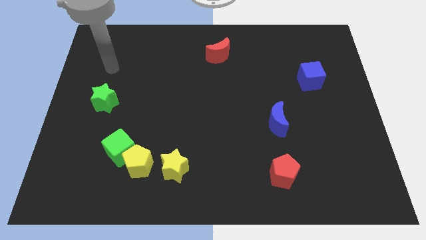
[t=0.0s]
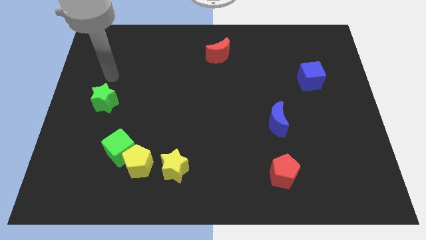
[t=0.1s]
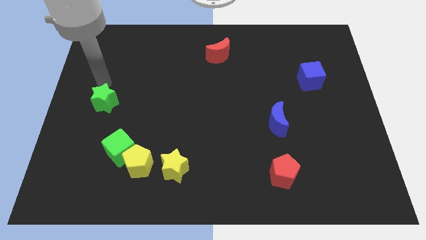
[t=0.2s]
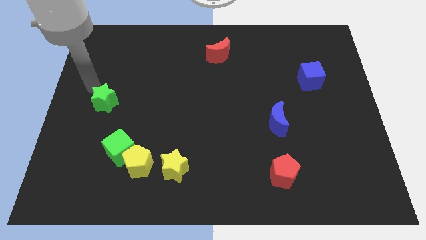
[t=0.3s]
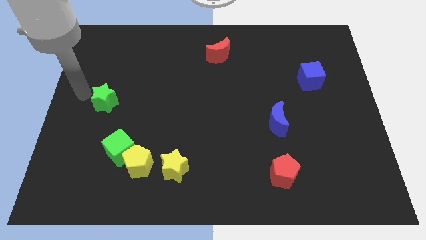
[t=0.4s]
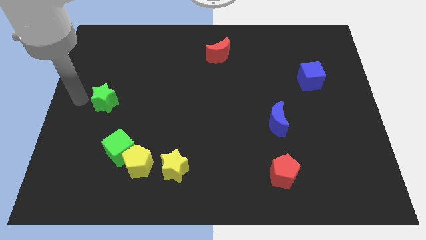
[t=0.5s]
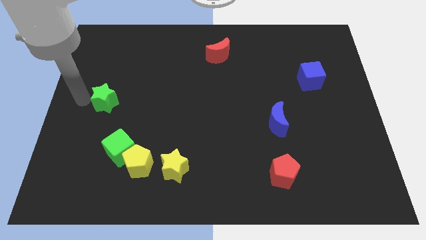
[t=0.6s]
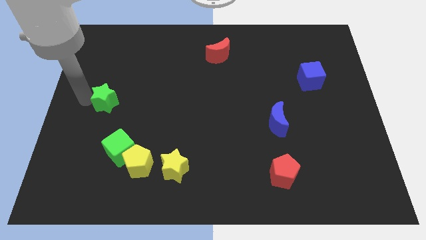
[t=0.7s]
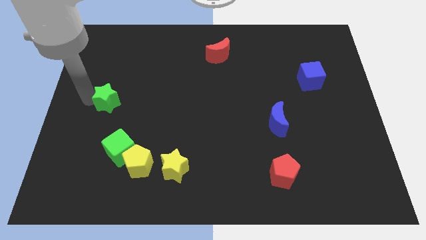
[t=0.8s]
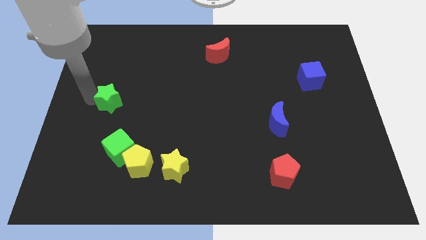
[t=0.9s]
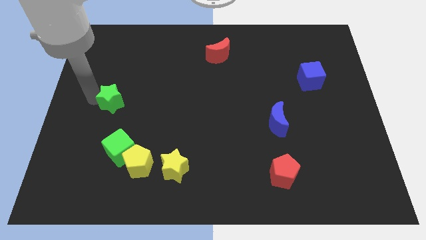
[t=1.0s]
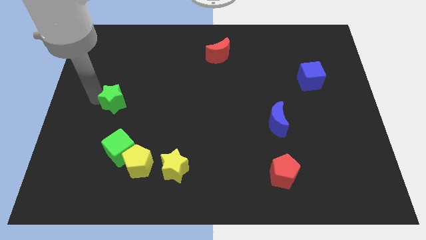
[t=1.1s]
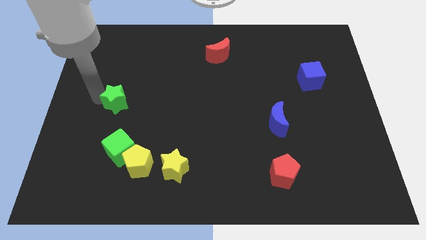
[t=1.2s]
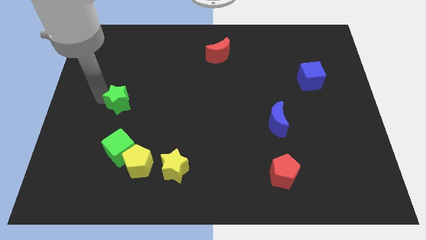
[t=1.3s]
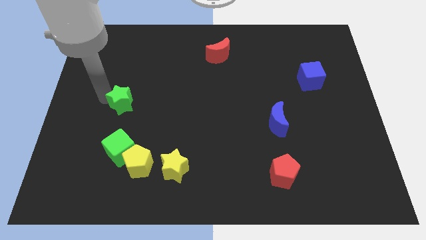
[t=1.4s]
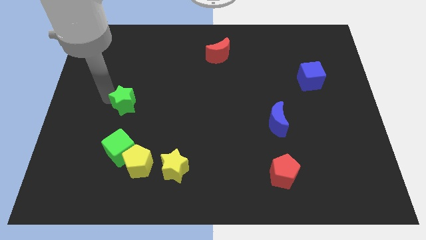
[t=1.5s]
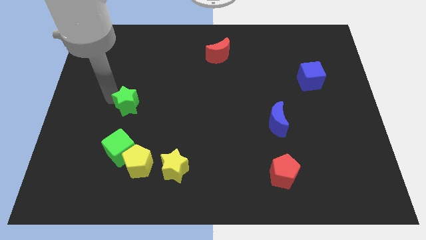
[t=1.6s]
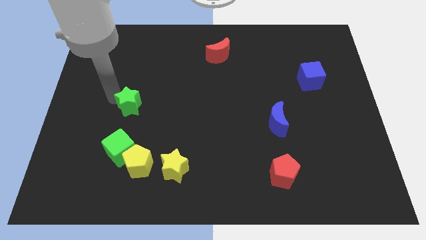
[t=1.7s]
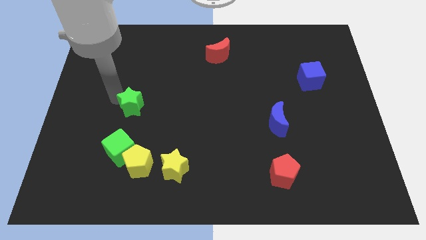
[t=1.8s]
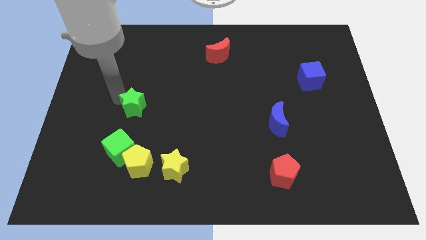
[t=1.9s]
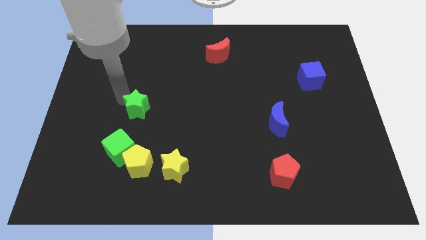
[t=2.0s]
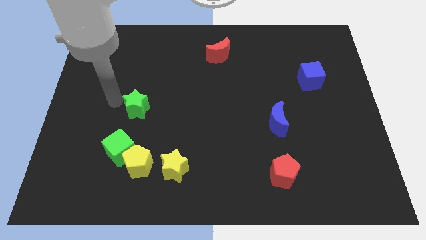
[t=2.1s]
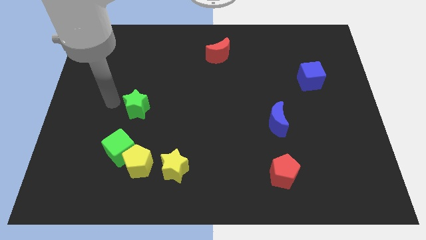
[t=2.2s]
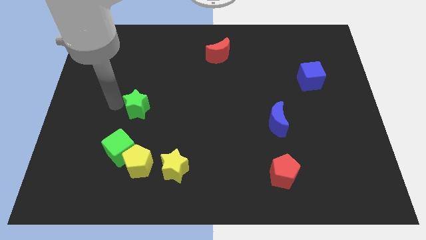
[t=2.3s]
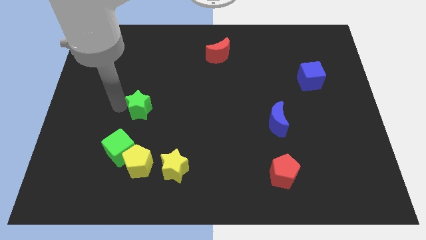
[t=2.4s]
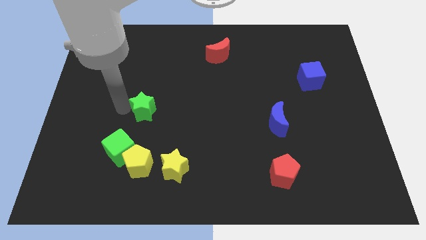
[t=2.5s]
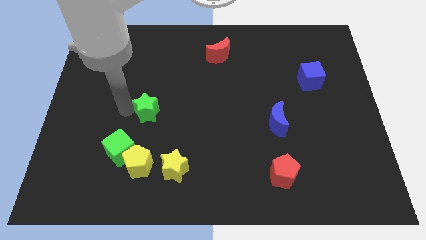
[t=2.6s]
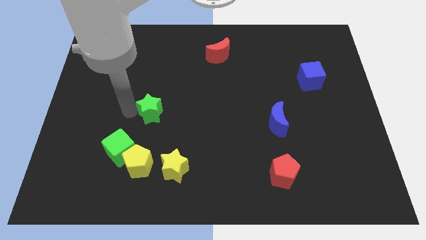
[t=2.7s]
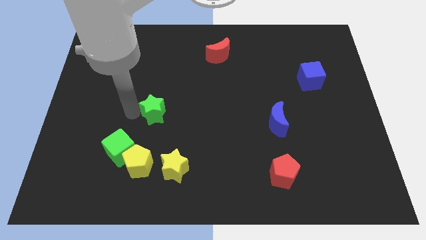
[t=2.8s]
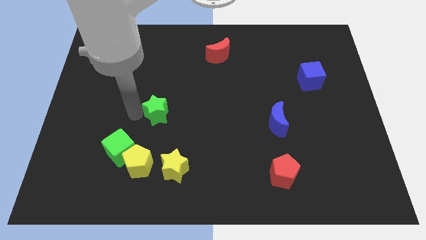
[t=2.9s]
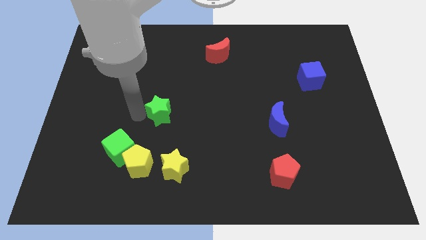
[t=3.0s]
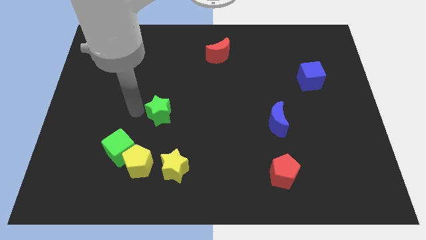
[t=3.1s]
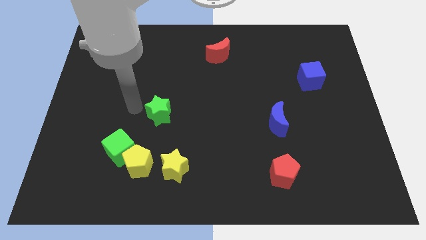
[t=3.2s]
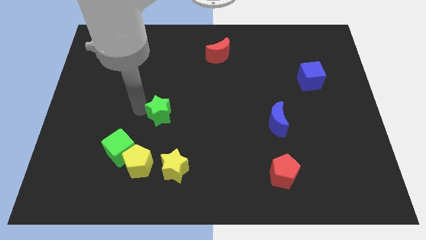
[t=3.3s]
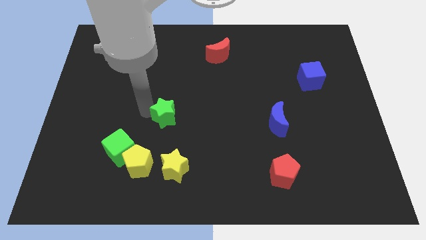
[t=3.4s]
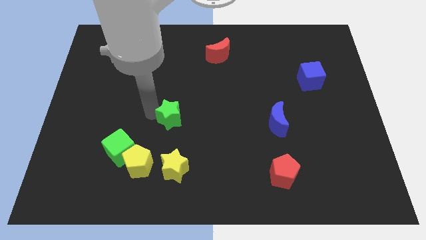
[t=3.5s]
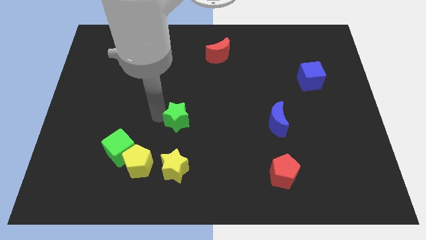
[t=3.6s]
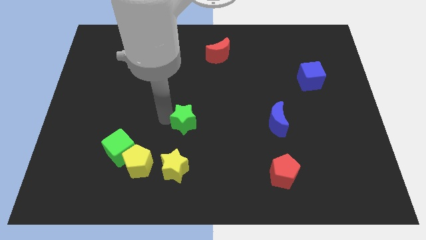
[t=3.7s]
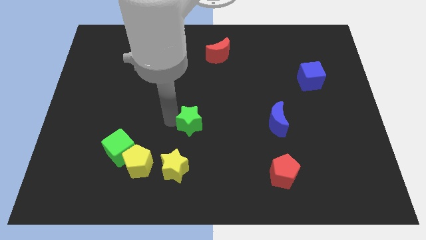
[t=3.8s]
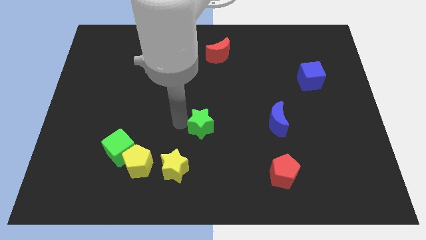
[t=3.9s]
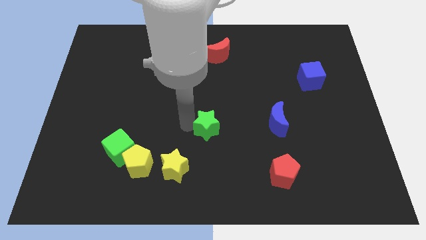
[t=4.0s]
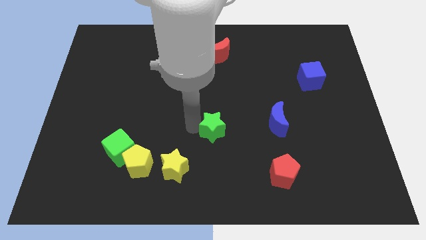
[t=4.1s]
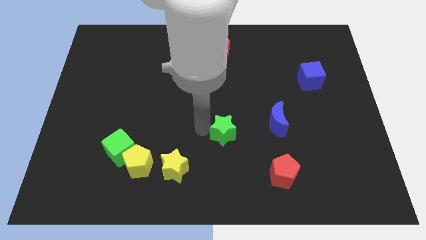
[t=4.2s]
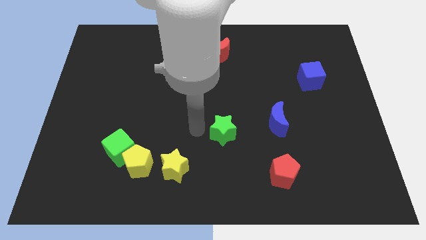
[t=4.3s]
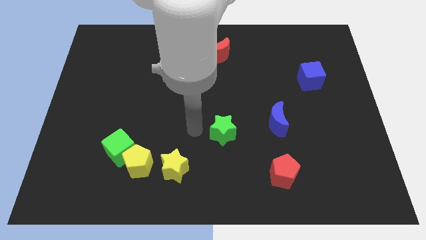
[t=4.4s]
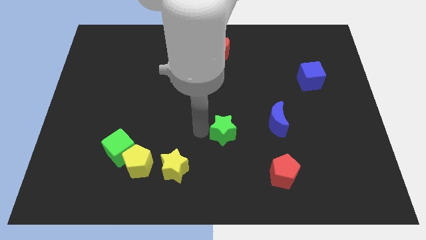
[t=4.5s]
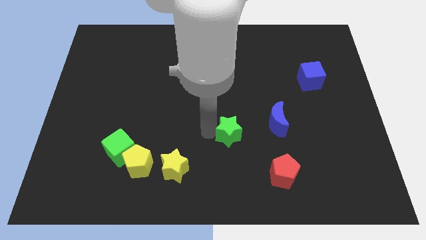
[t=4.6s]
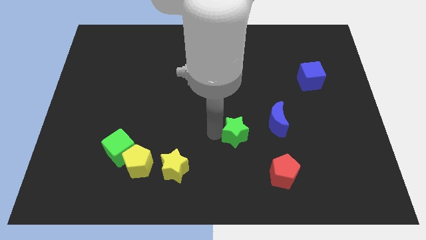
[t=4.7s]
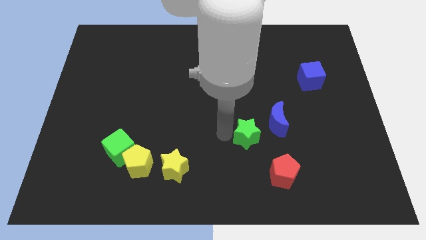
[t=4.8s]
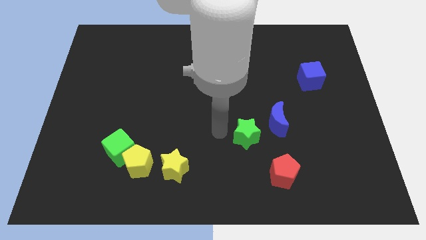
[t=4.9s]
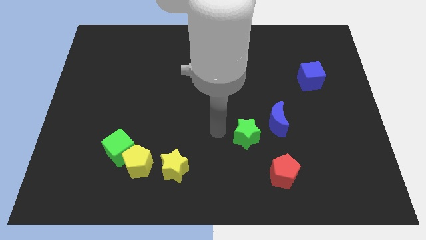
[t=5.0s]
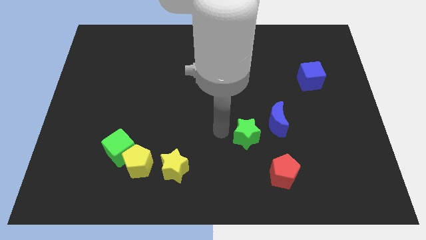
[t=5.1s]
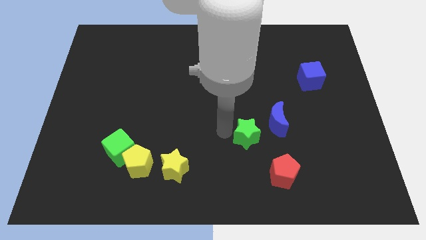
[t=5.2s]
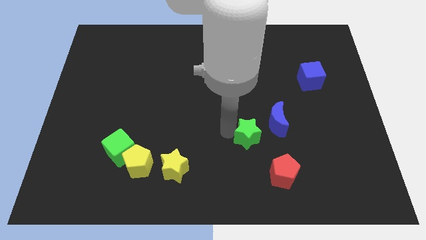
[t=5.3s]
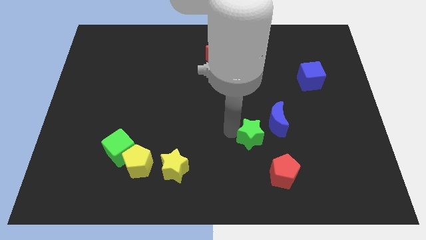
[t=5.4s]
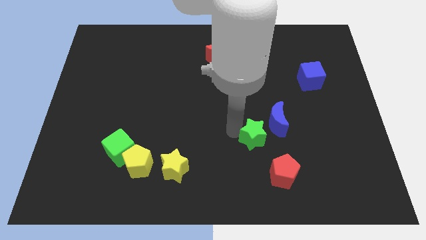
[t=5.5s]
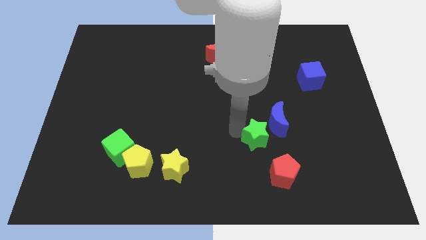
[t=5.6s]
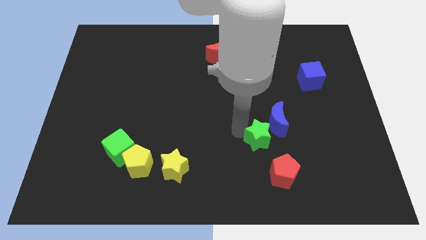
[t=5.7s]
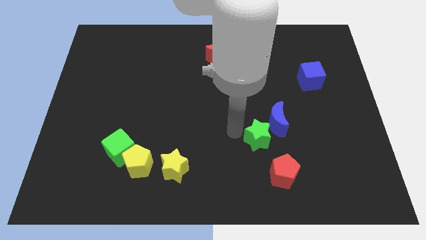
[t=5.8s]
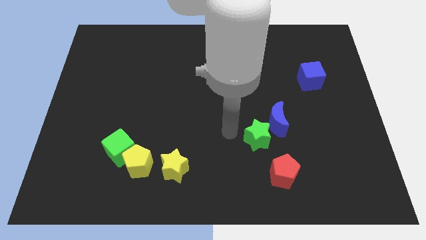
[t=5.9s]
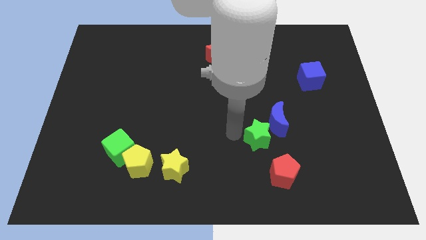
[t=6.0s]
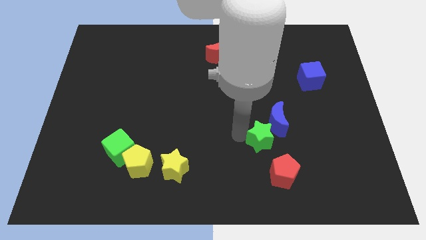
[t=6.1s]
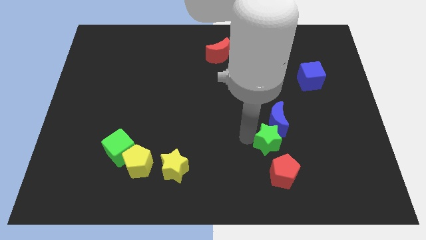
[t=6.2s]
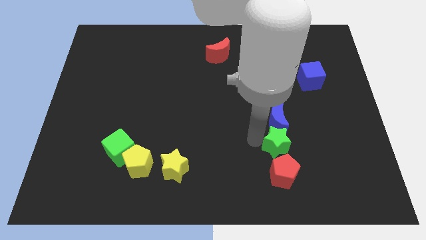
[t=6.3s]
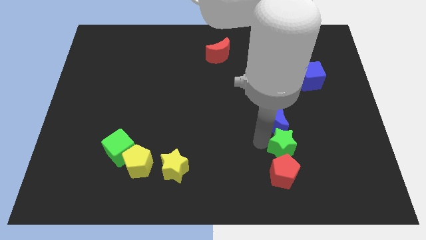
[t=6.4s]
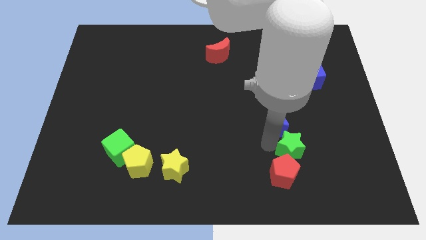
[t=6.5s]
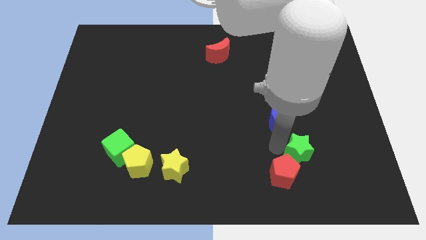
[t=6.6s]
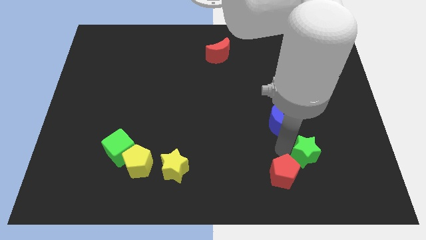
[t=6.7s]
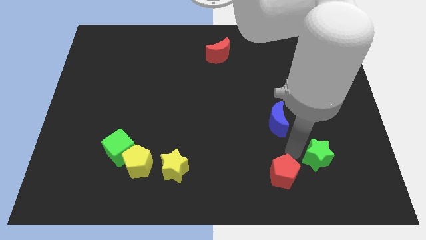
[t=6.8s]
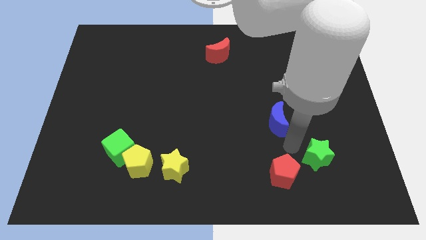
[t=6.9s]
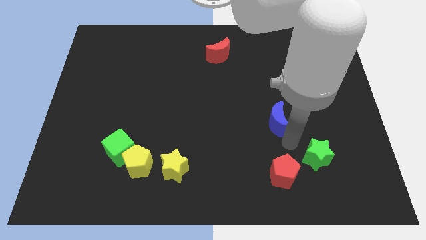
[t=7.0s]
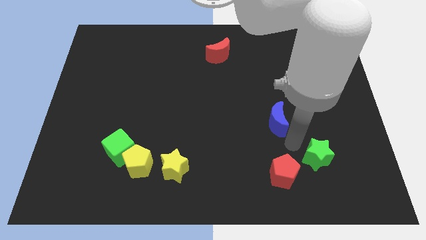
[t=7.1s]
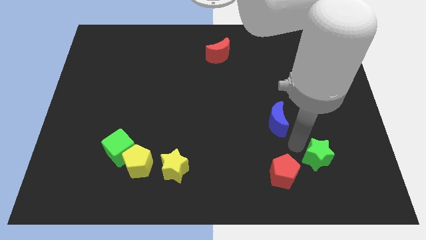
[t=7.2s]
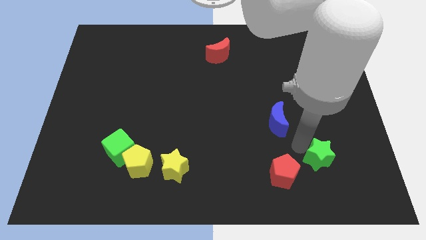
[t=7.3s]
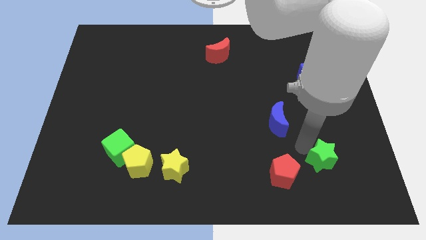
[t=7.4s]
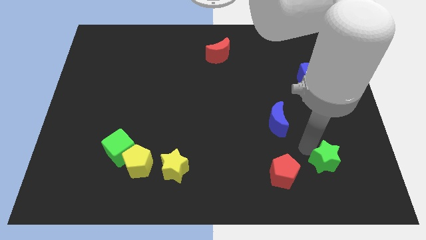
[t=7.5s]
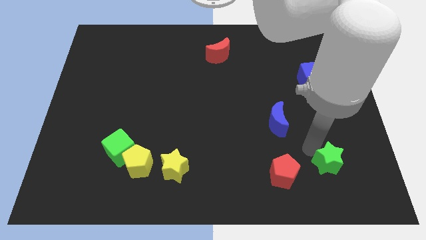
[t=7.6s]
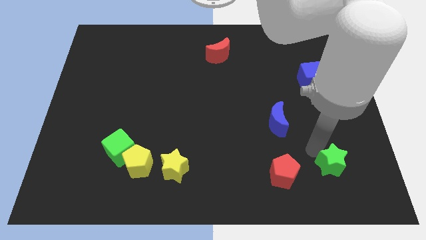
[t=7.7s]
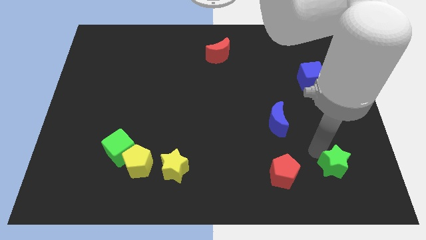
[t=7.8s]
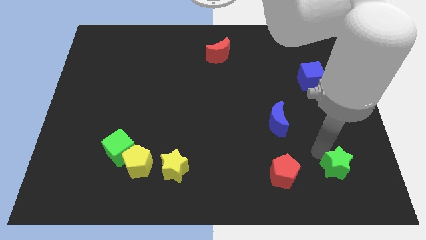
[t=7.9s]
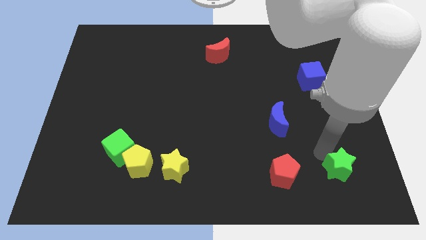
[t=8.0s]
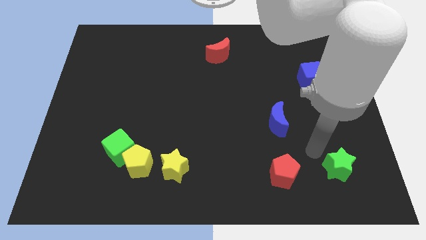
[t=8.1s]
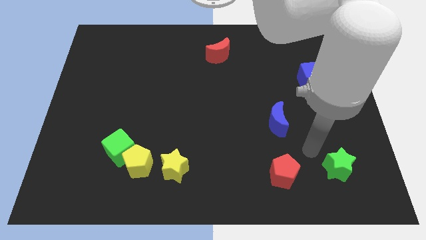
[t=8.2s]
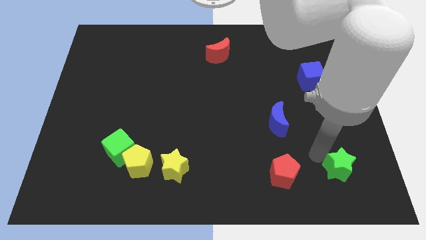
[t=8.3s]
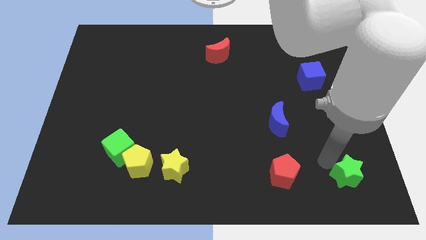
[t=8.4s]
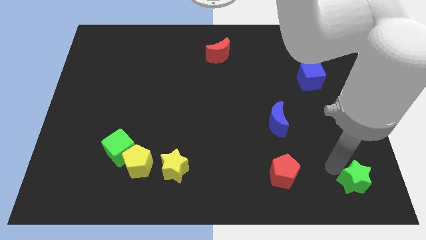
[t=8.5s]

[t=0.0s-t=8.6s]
move the green star to the bottom right corner

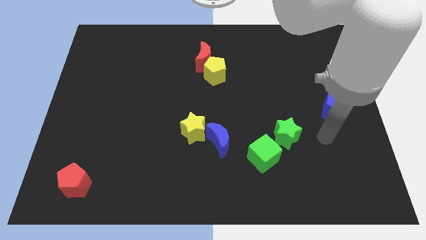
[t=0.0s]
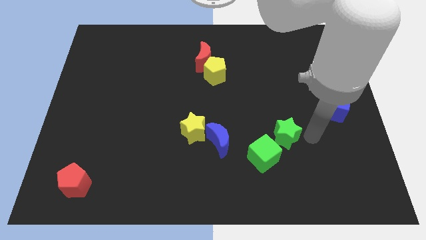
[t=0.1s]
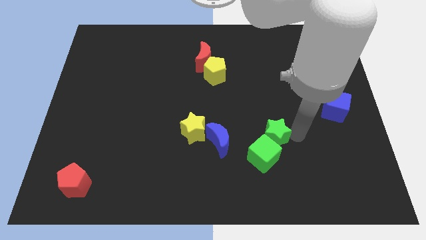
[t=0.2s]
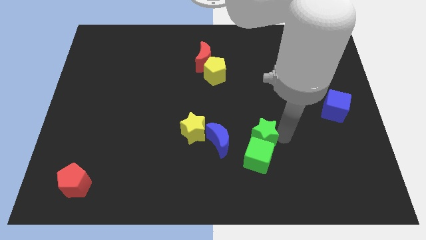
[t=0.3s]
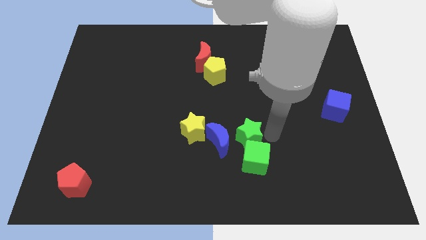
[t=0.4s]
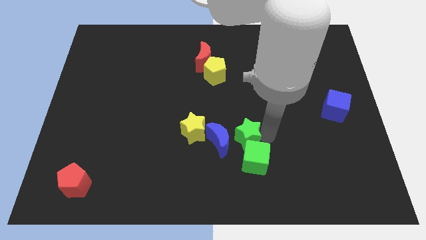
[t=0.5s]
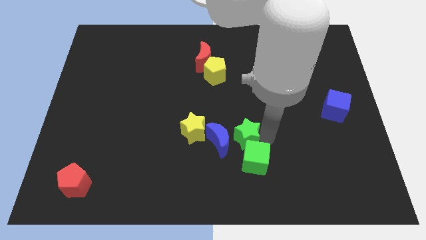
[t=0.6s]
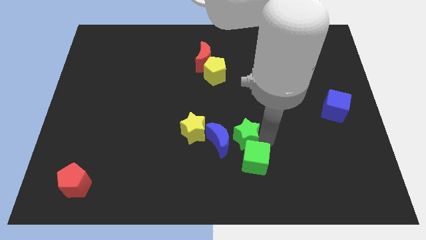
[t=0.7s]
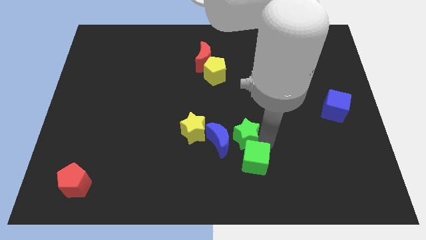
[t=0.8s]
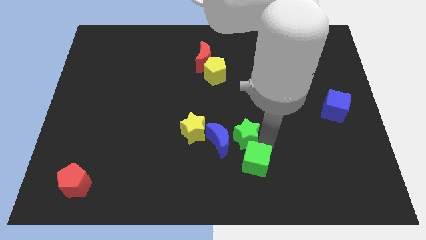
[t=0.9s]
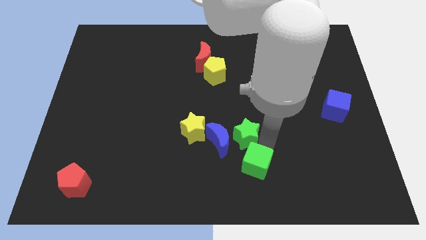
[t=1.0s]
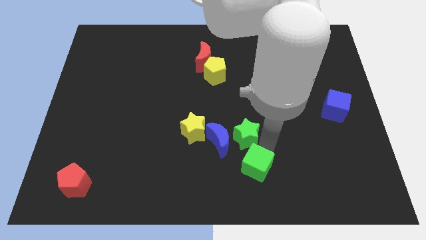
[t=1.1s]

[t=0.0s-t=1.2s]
push the green cube to the bottom side
